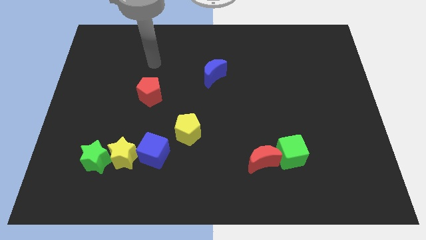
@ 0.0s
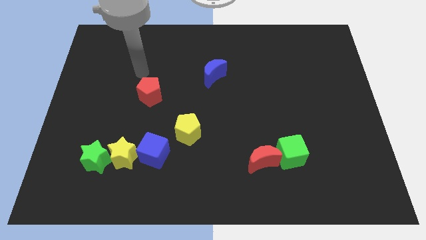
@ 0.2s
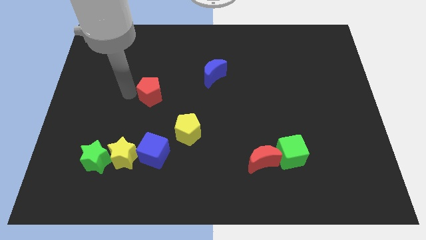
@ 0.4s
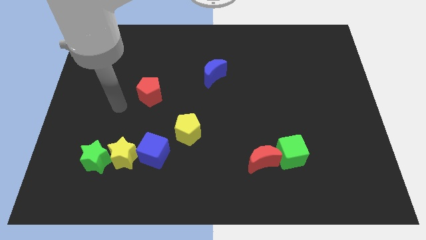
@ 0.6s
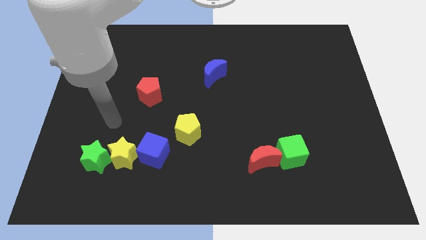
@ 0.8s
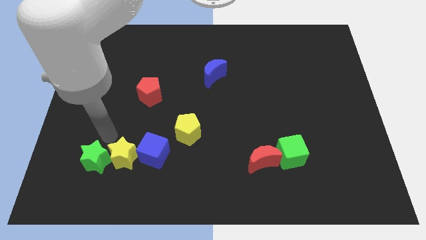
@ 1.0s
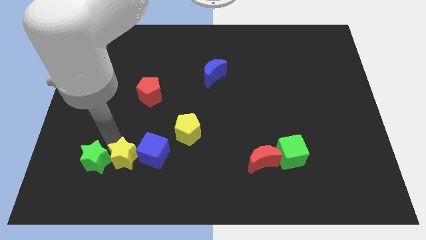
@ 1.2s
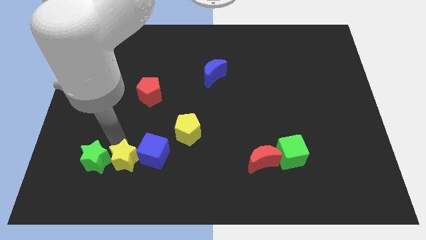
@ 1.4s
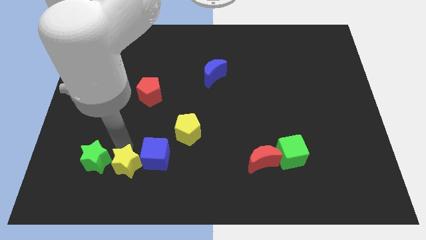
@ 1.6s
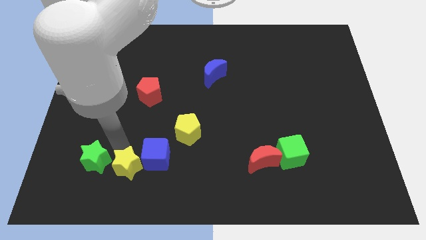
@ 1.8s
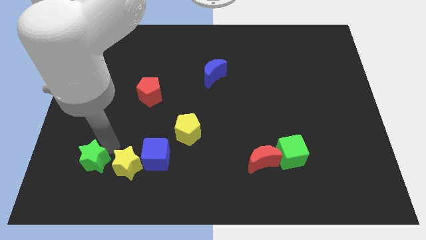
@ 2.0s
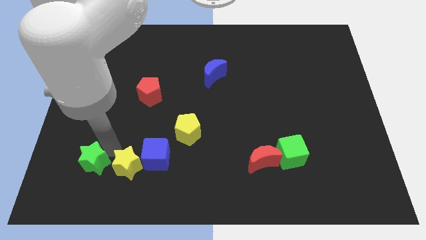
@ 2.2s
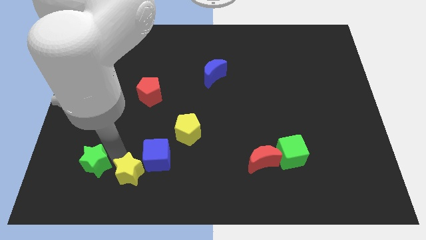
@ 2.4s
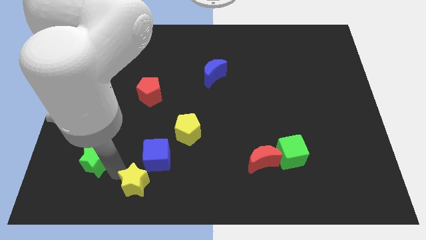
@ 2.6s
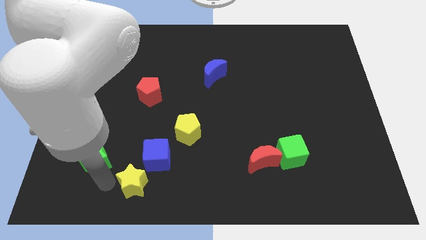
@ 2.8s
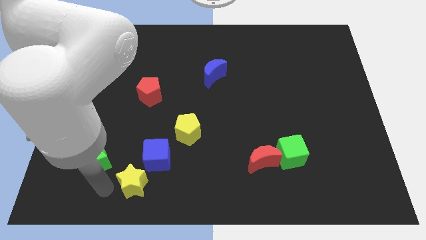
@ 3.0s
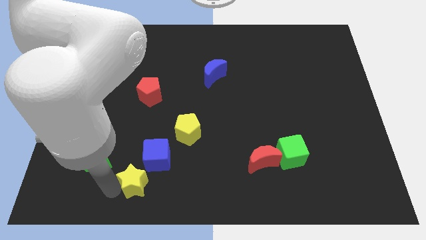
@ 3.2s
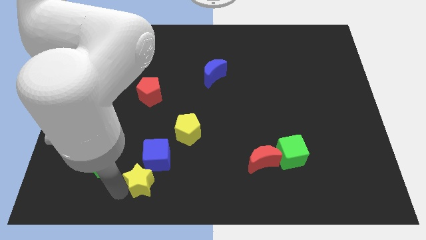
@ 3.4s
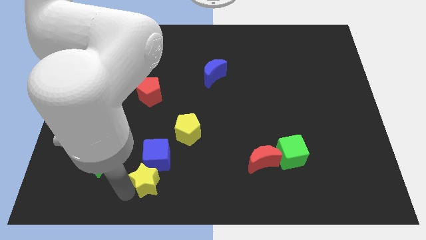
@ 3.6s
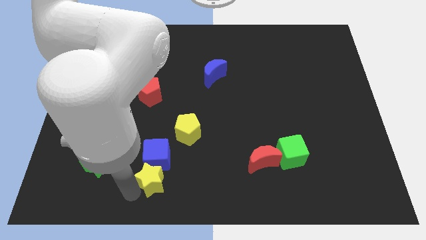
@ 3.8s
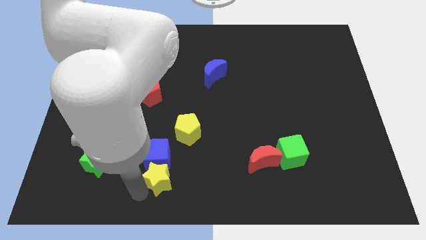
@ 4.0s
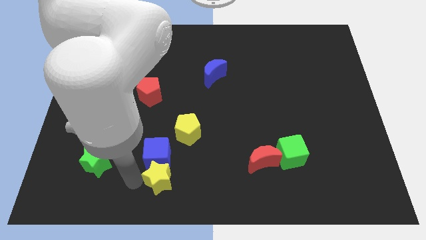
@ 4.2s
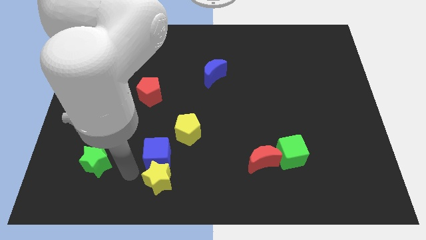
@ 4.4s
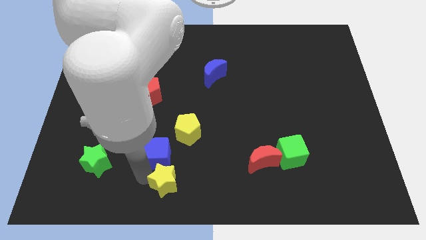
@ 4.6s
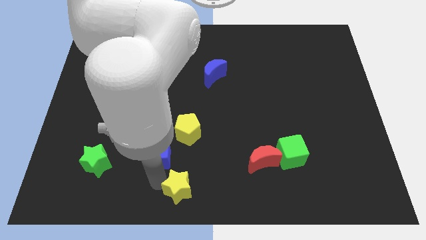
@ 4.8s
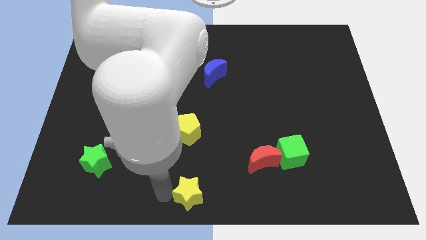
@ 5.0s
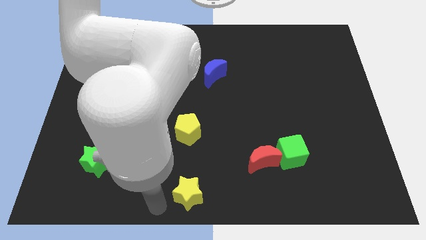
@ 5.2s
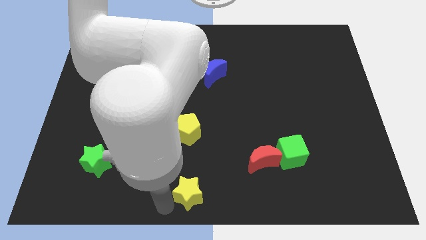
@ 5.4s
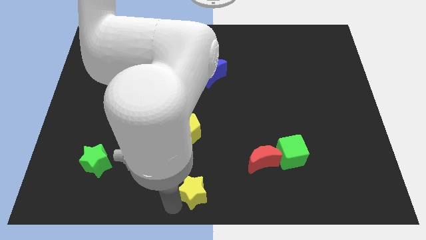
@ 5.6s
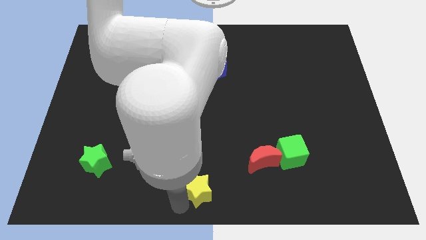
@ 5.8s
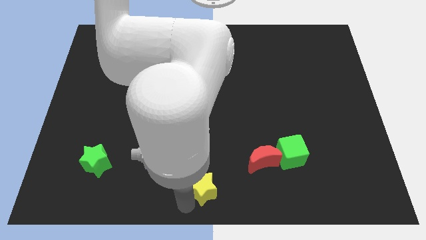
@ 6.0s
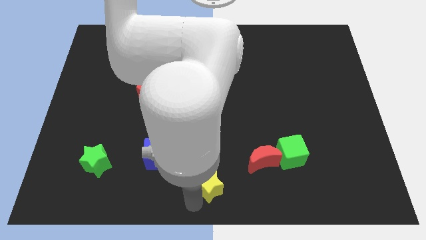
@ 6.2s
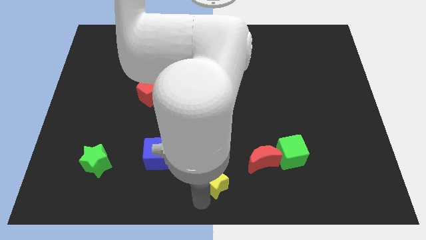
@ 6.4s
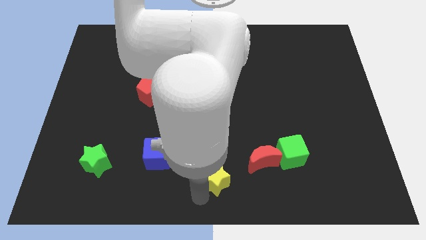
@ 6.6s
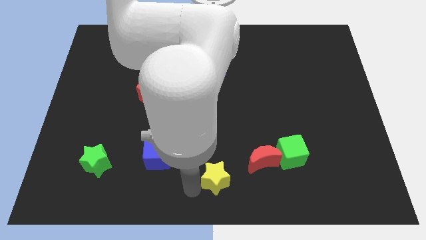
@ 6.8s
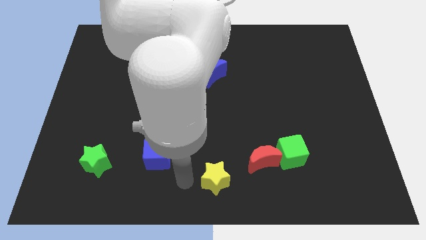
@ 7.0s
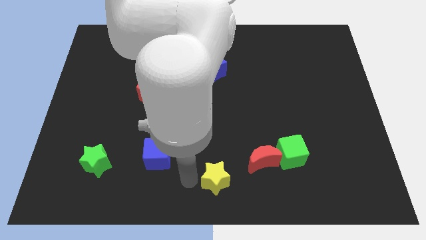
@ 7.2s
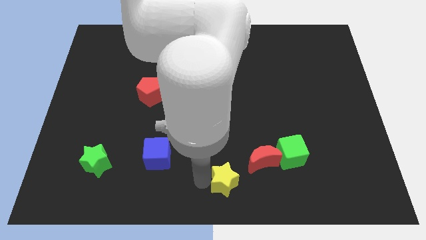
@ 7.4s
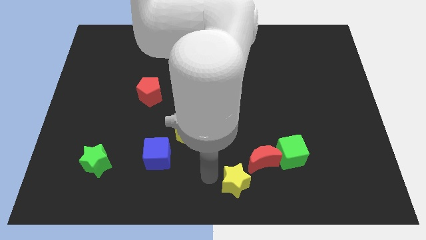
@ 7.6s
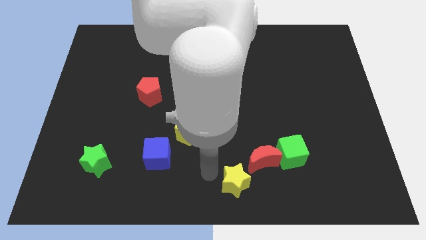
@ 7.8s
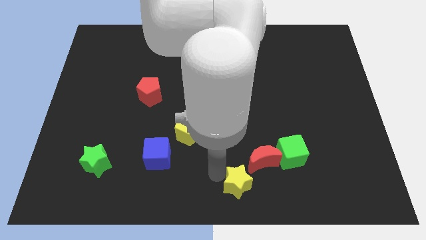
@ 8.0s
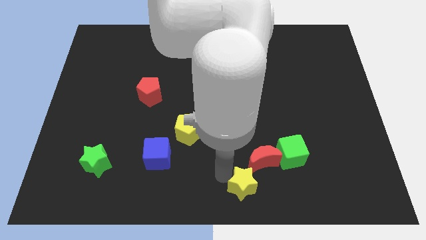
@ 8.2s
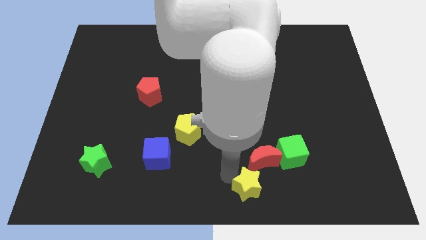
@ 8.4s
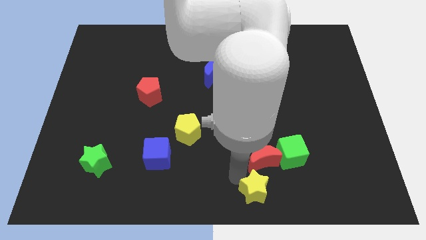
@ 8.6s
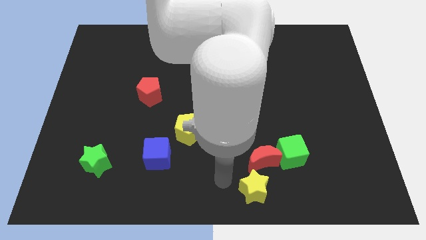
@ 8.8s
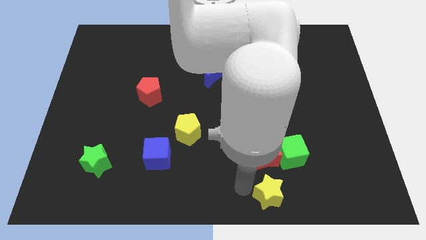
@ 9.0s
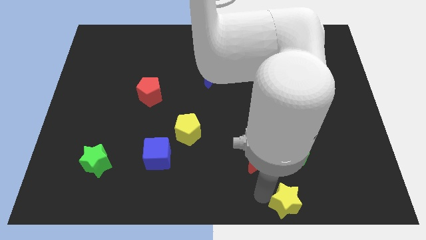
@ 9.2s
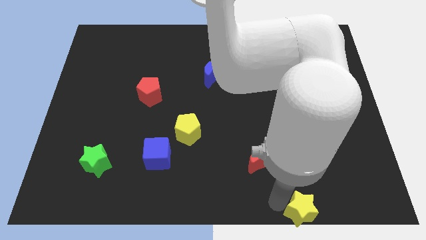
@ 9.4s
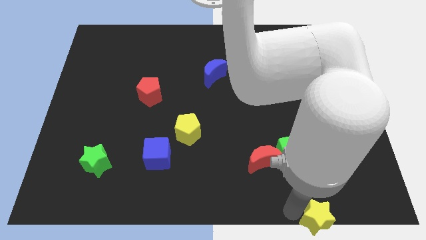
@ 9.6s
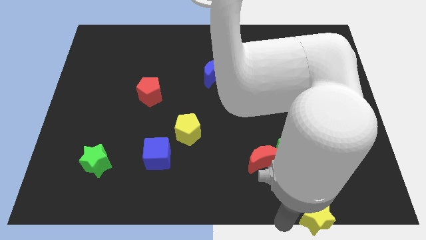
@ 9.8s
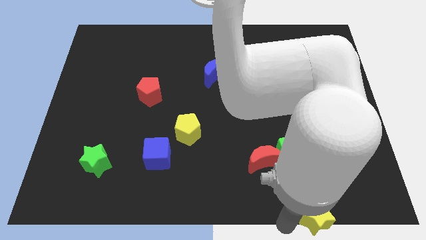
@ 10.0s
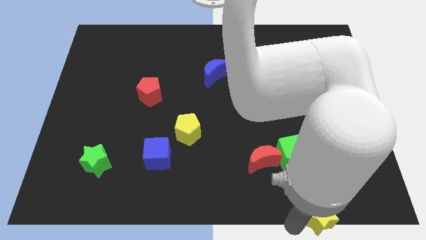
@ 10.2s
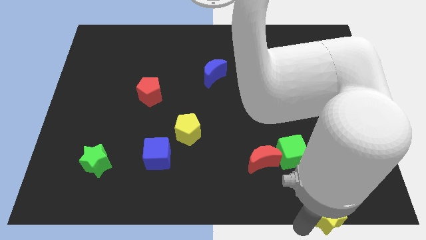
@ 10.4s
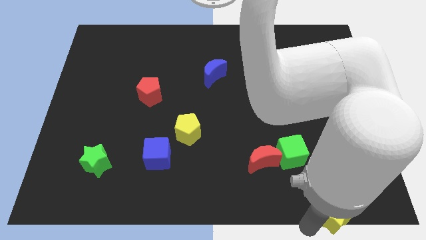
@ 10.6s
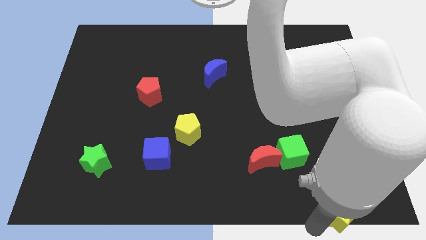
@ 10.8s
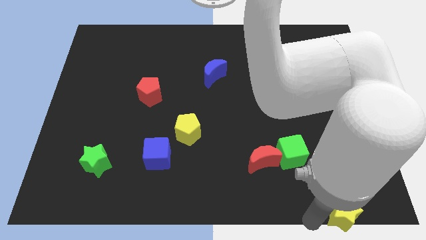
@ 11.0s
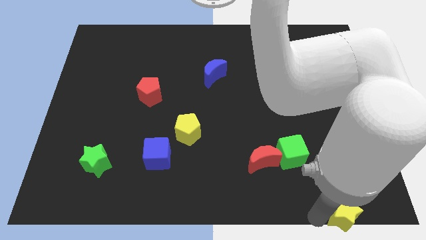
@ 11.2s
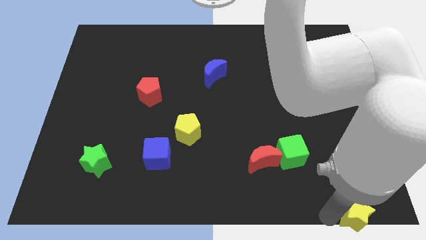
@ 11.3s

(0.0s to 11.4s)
push the yellow star to the bottom right

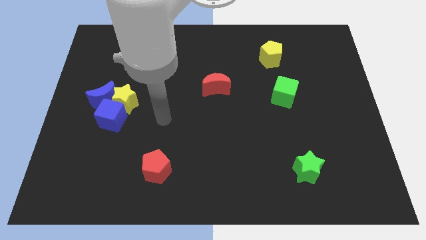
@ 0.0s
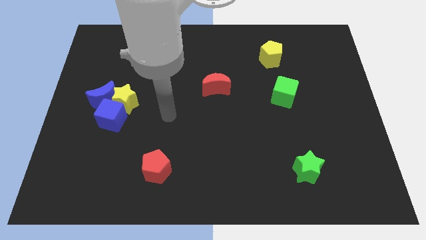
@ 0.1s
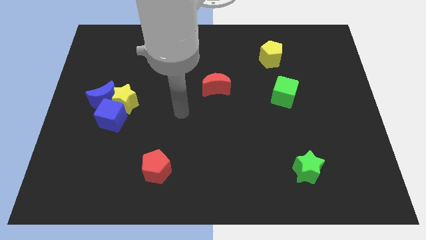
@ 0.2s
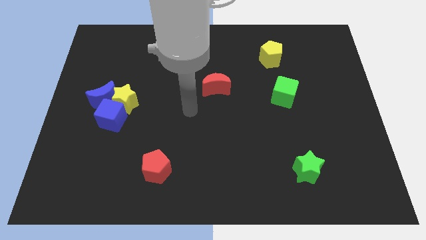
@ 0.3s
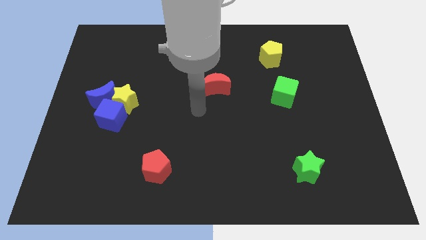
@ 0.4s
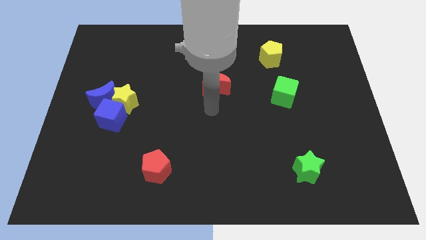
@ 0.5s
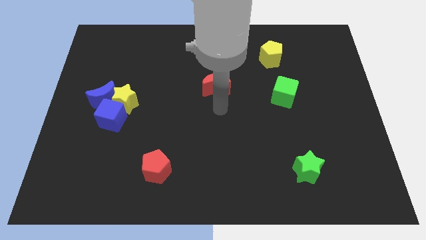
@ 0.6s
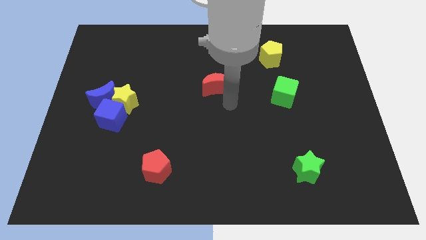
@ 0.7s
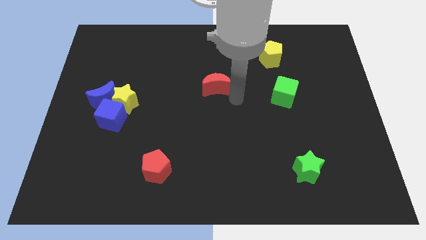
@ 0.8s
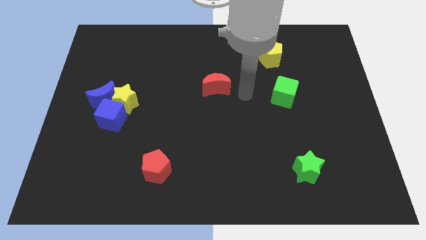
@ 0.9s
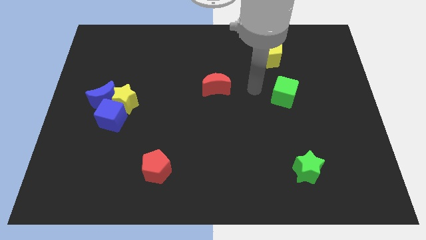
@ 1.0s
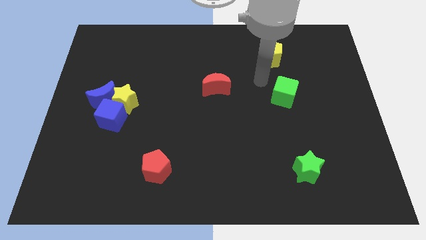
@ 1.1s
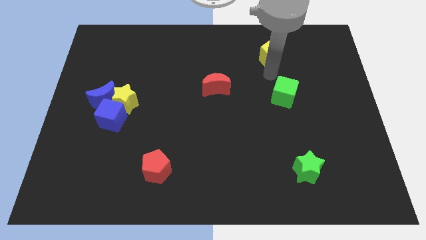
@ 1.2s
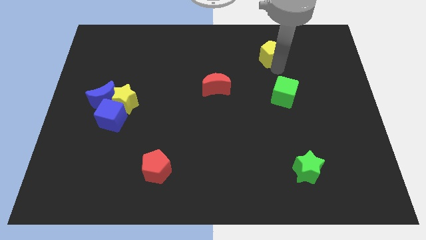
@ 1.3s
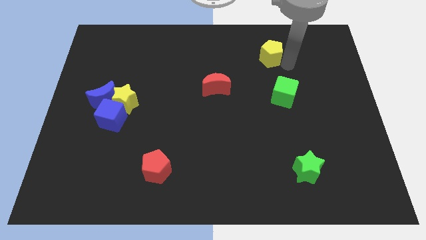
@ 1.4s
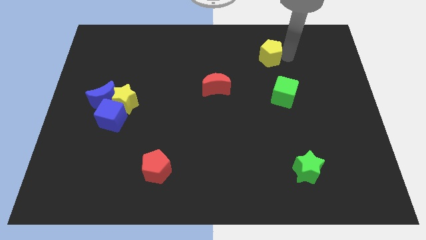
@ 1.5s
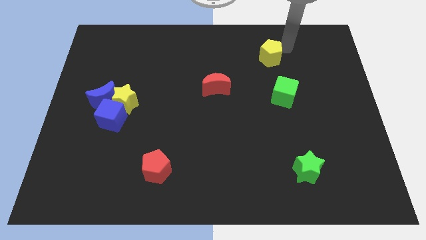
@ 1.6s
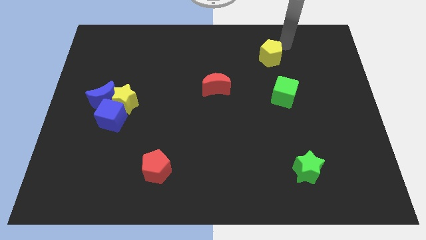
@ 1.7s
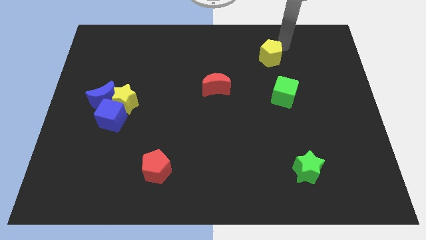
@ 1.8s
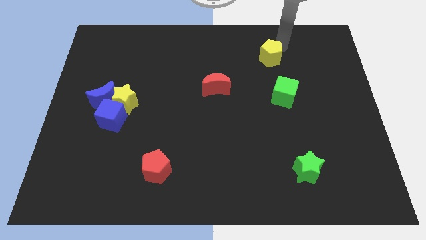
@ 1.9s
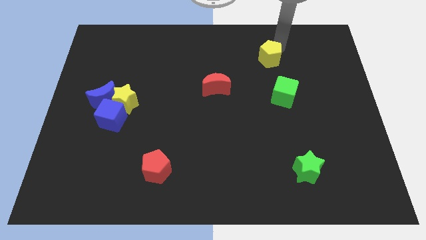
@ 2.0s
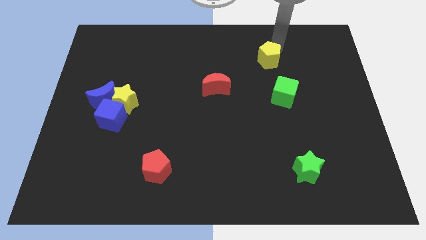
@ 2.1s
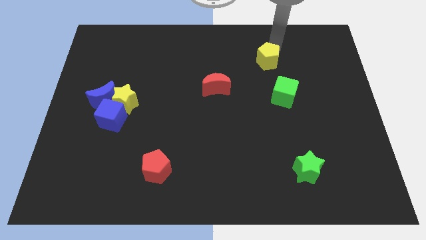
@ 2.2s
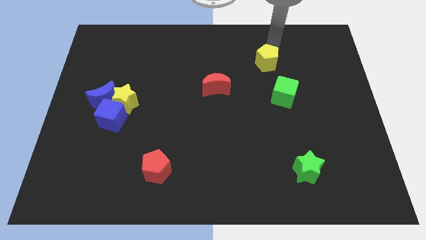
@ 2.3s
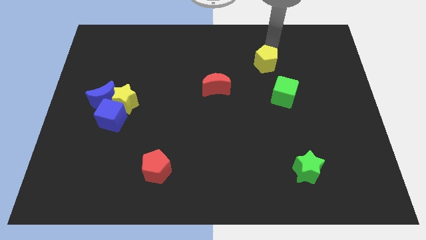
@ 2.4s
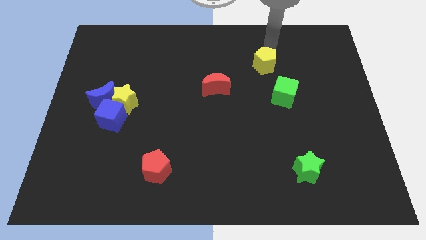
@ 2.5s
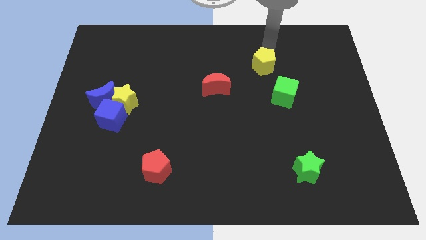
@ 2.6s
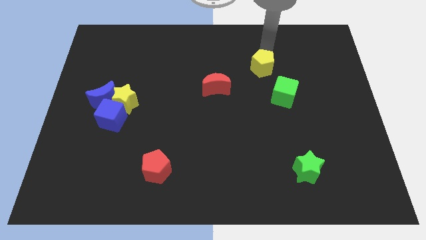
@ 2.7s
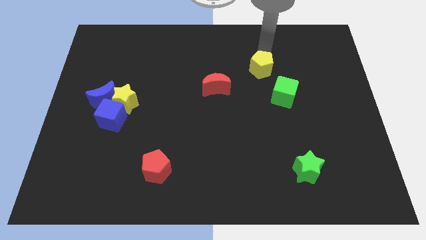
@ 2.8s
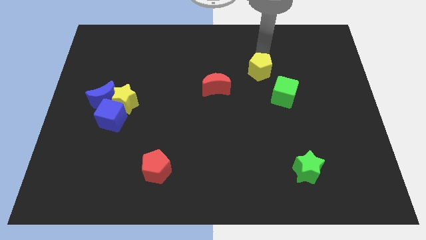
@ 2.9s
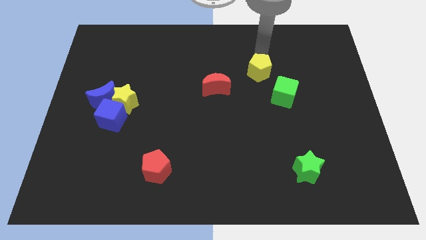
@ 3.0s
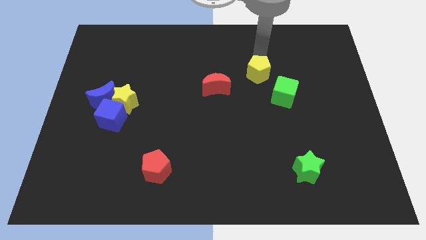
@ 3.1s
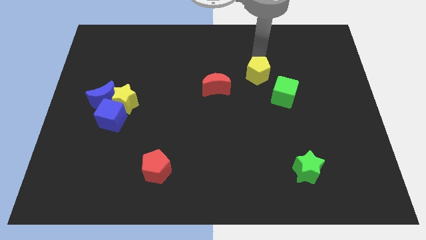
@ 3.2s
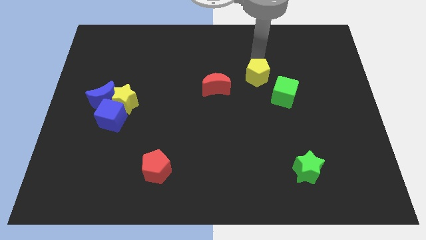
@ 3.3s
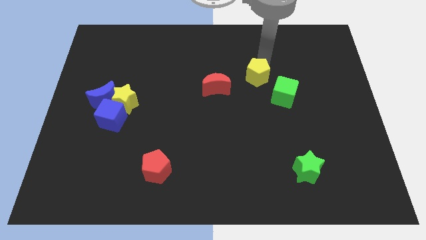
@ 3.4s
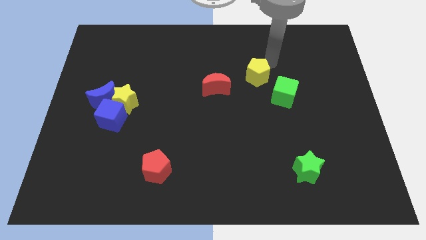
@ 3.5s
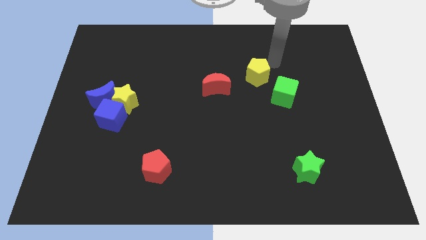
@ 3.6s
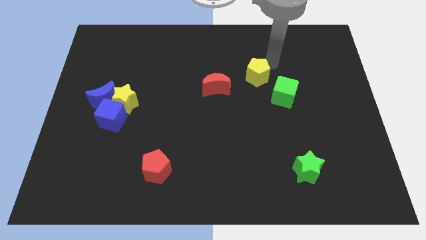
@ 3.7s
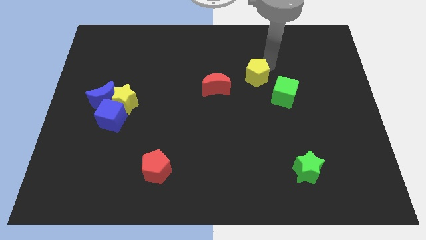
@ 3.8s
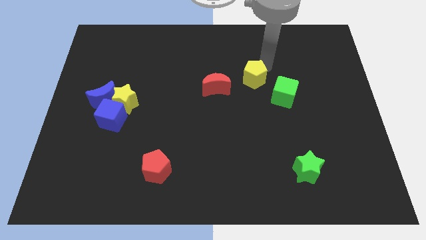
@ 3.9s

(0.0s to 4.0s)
move the yellow pentagon to the middle
